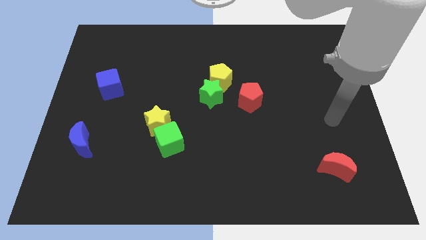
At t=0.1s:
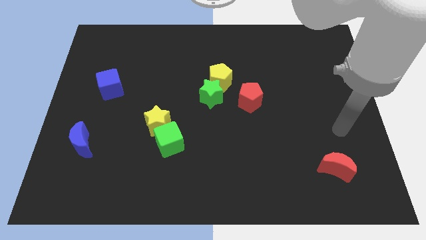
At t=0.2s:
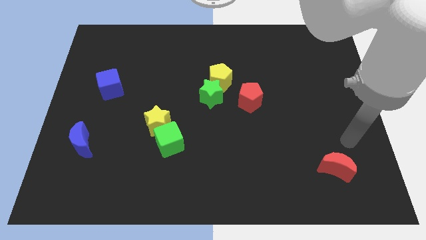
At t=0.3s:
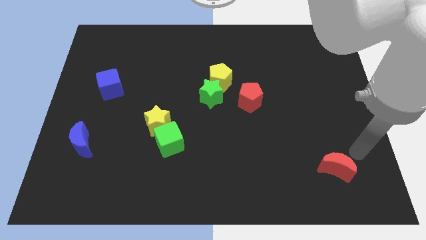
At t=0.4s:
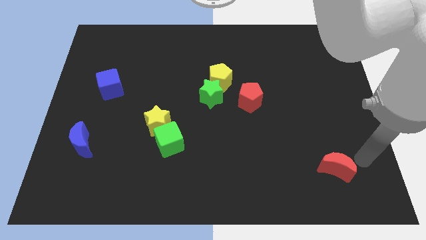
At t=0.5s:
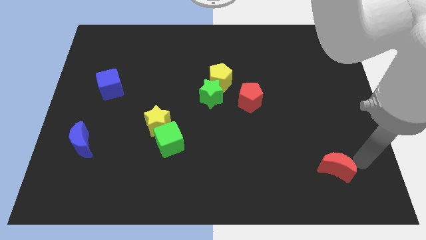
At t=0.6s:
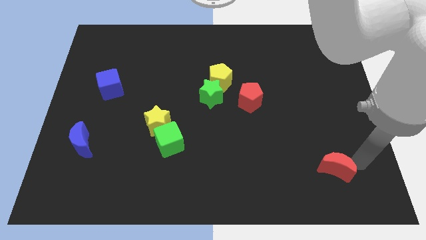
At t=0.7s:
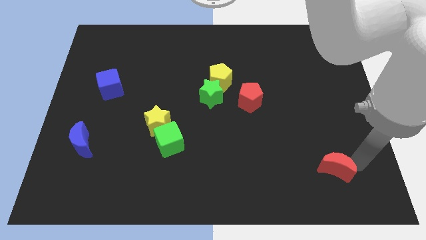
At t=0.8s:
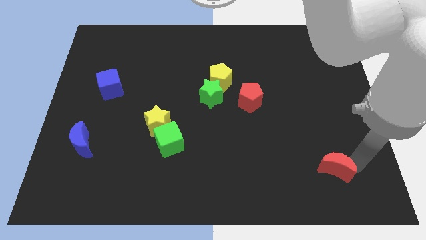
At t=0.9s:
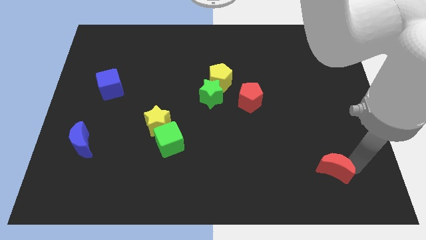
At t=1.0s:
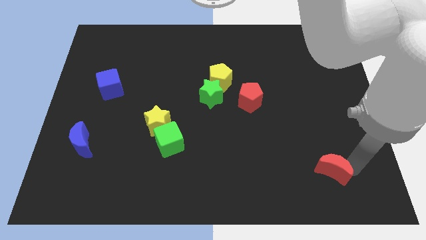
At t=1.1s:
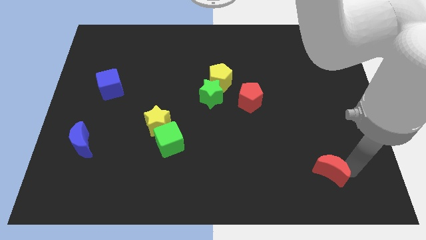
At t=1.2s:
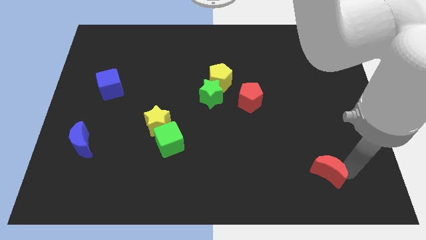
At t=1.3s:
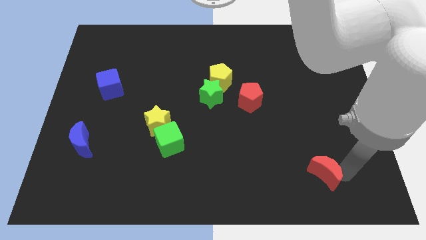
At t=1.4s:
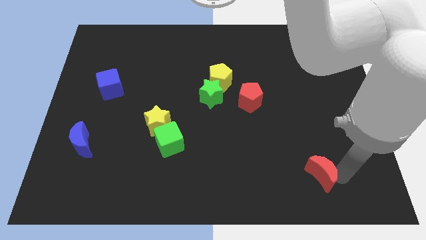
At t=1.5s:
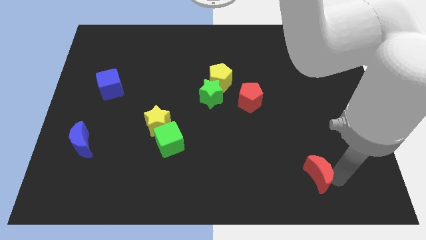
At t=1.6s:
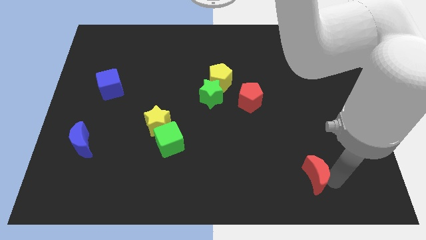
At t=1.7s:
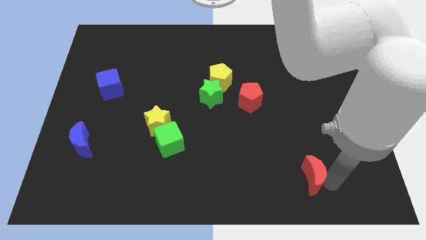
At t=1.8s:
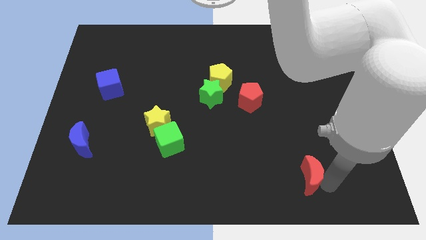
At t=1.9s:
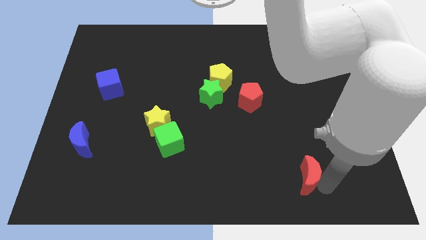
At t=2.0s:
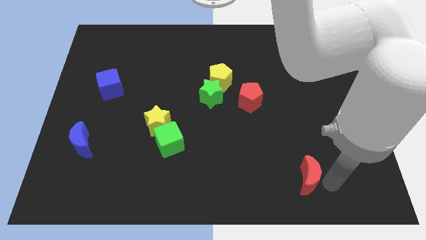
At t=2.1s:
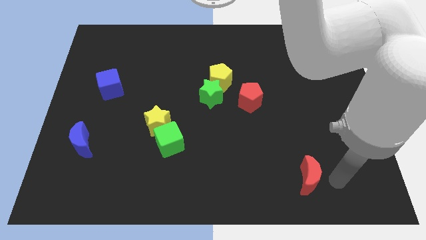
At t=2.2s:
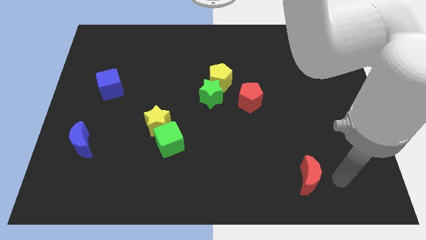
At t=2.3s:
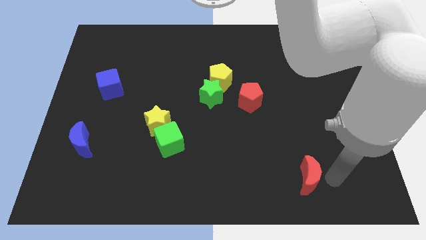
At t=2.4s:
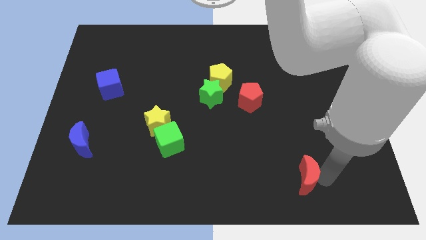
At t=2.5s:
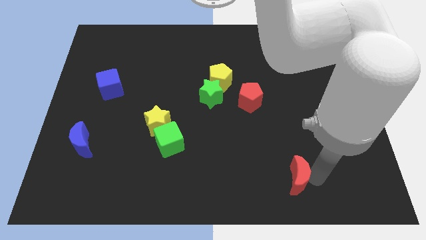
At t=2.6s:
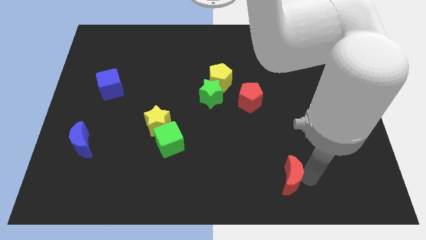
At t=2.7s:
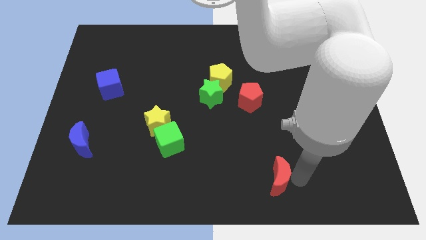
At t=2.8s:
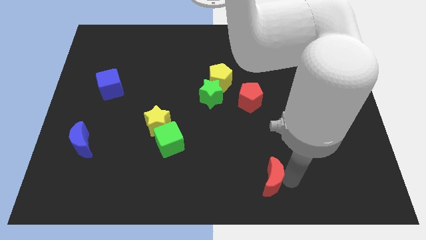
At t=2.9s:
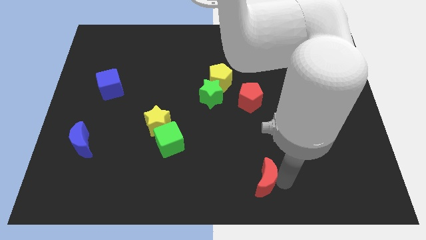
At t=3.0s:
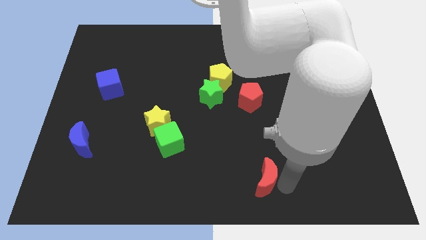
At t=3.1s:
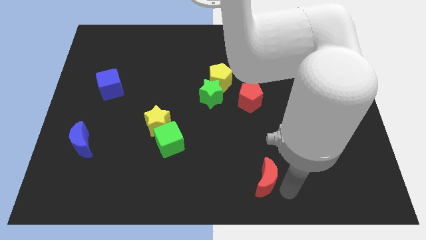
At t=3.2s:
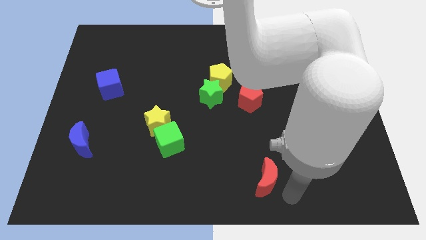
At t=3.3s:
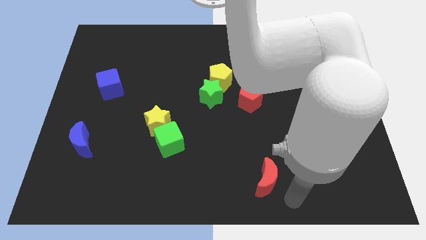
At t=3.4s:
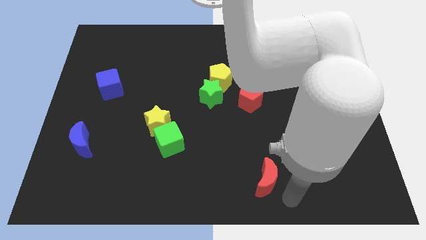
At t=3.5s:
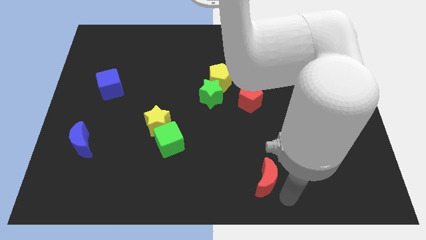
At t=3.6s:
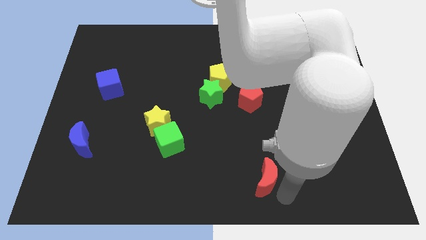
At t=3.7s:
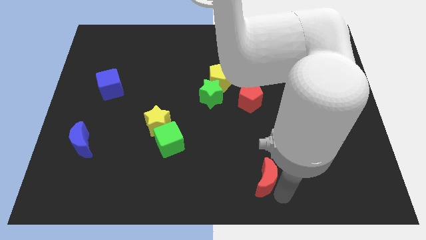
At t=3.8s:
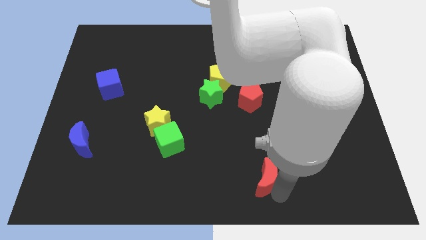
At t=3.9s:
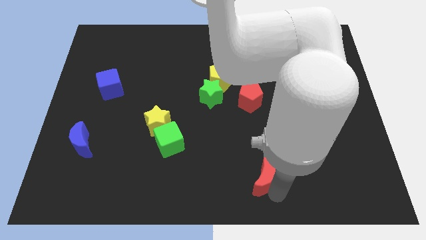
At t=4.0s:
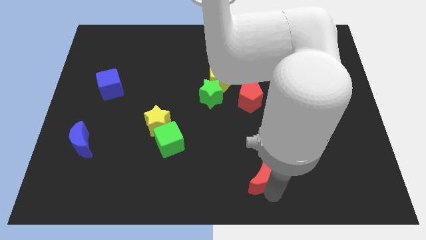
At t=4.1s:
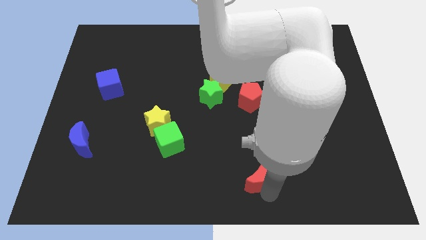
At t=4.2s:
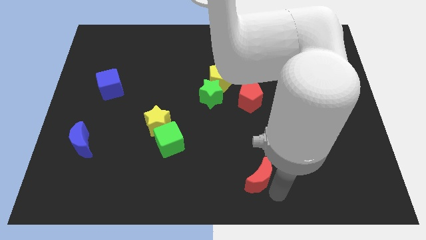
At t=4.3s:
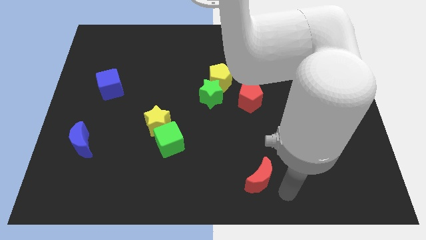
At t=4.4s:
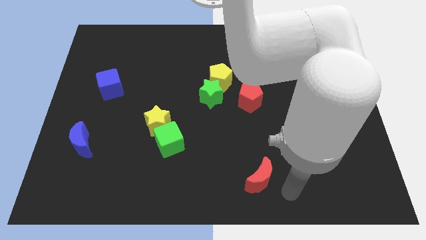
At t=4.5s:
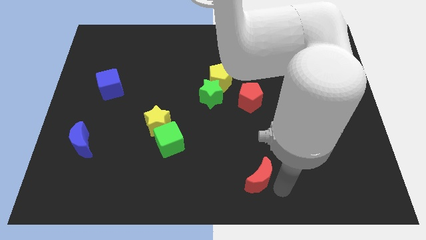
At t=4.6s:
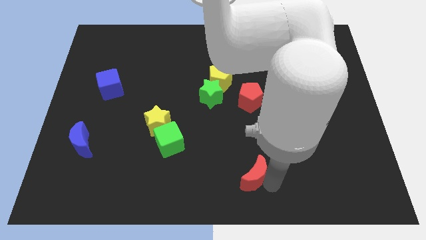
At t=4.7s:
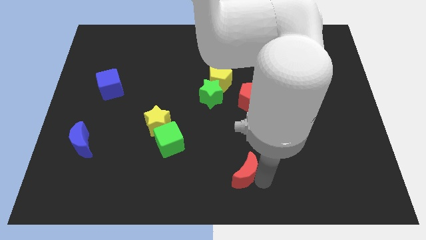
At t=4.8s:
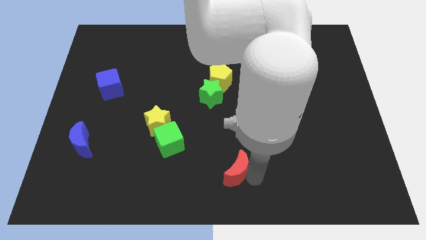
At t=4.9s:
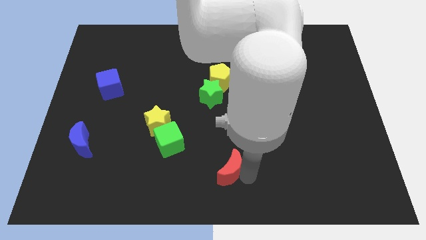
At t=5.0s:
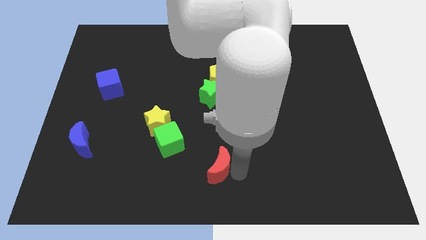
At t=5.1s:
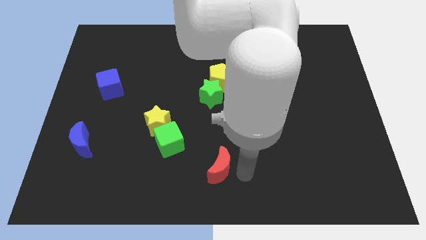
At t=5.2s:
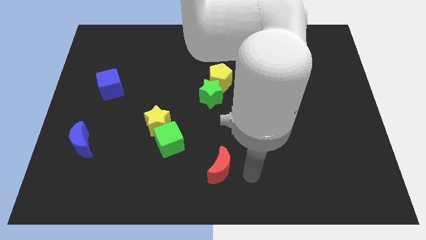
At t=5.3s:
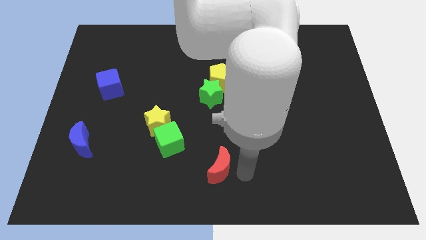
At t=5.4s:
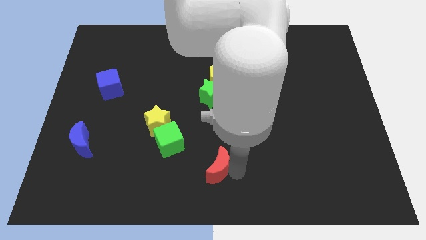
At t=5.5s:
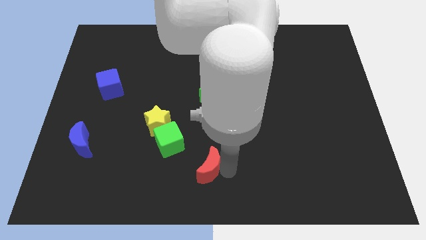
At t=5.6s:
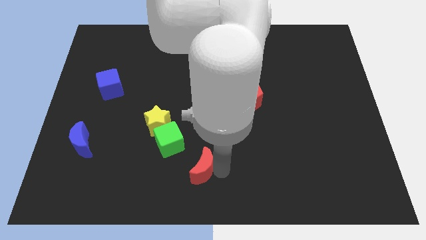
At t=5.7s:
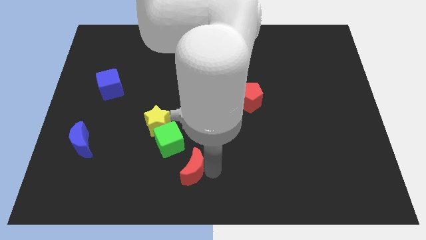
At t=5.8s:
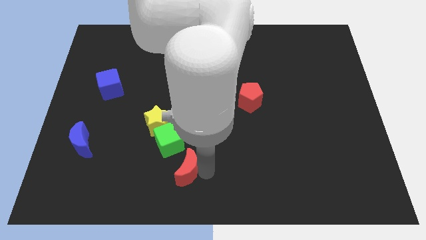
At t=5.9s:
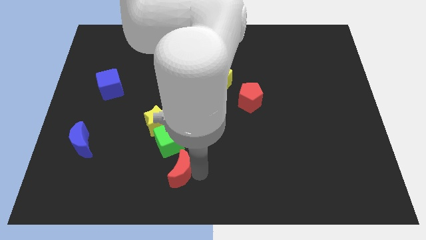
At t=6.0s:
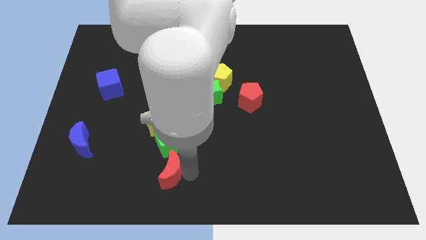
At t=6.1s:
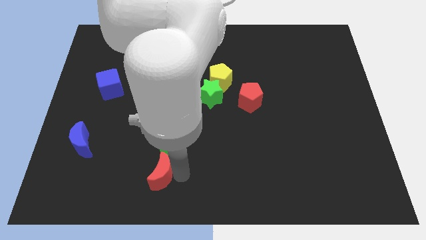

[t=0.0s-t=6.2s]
push the red moon to the bottom left of the green cube
